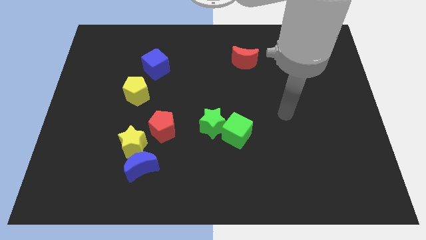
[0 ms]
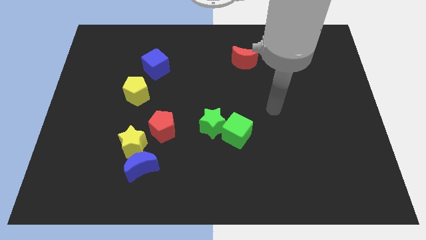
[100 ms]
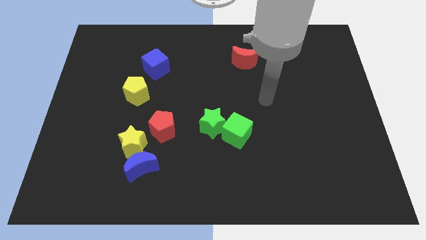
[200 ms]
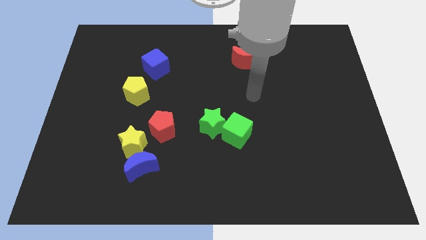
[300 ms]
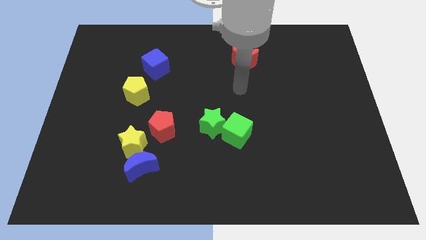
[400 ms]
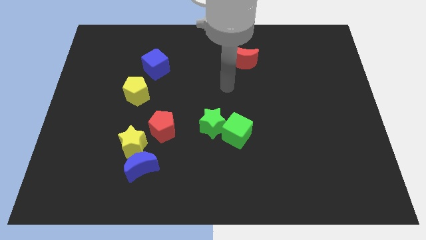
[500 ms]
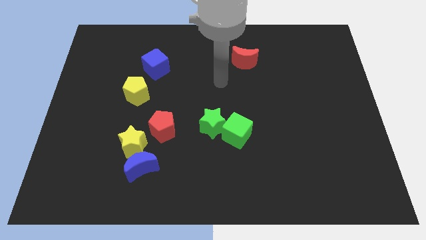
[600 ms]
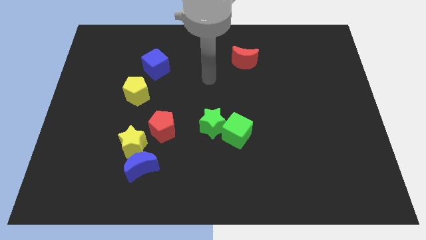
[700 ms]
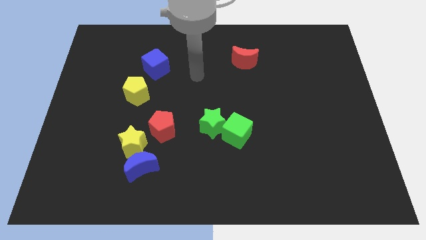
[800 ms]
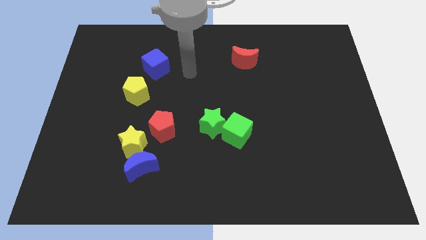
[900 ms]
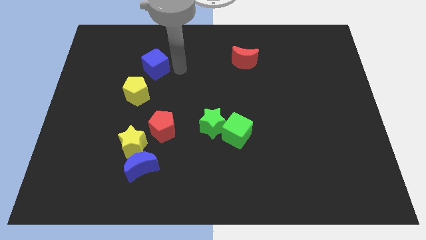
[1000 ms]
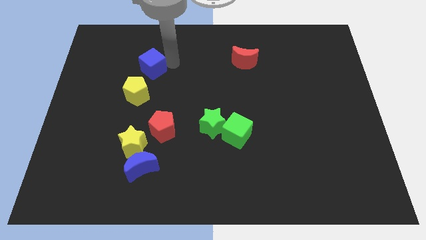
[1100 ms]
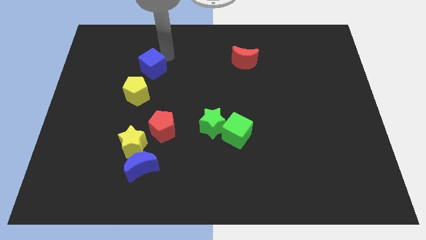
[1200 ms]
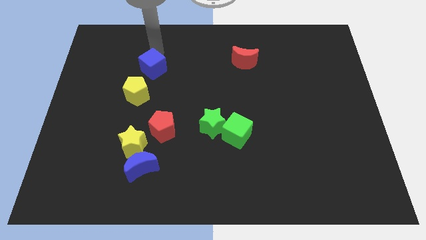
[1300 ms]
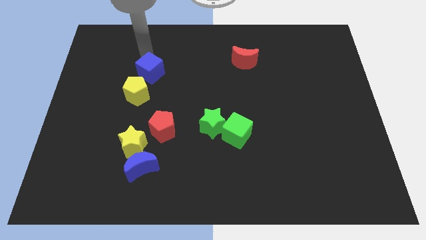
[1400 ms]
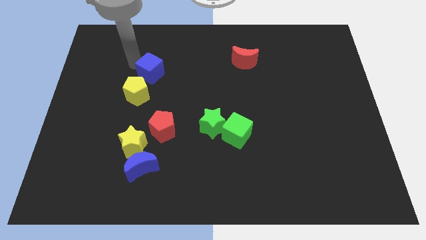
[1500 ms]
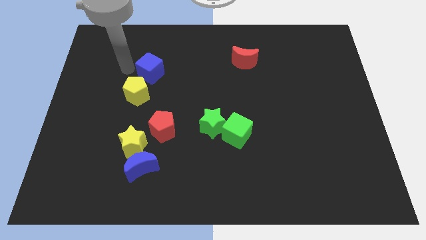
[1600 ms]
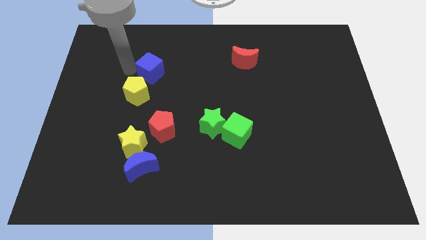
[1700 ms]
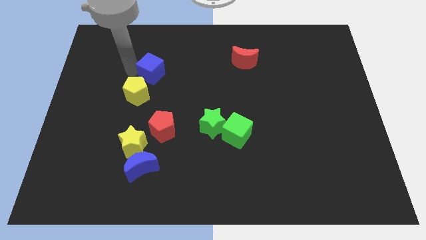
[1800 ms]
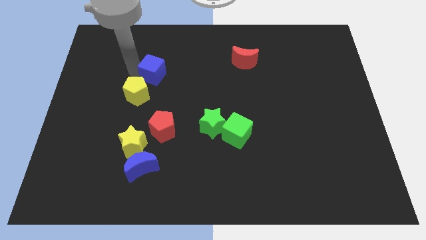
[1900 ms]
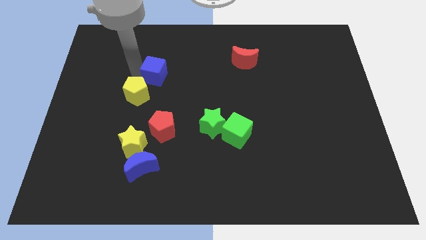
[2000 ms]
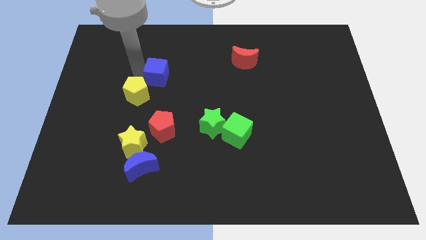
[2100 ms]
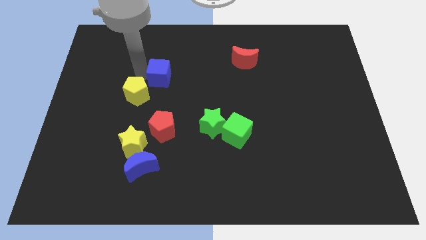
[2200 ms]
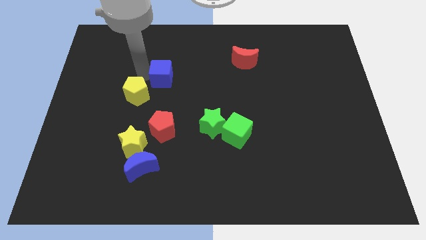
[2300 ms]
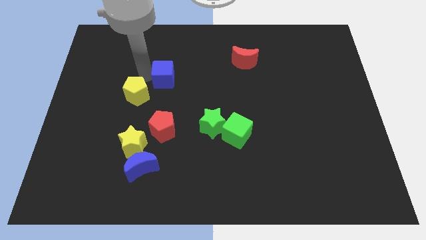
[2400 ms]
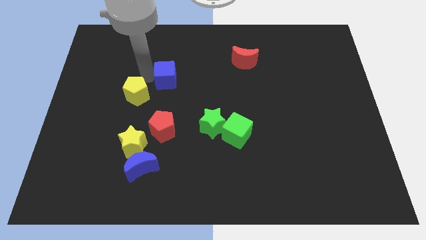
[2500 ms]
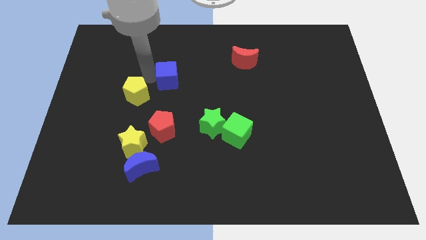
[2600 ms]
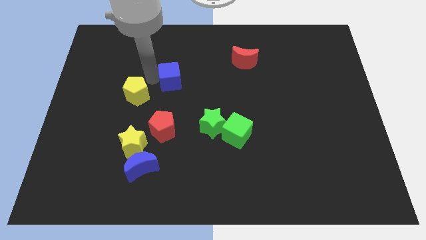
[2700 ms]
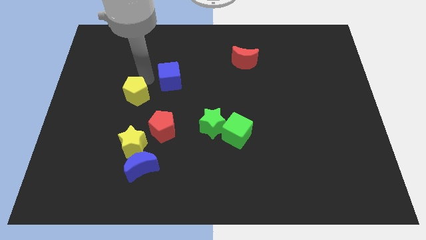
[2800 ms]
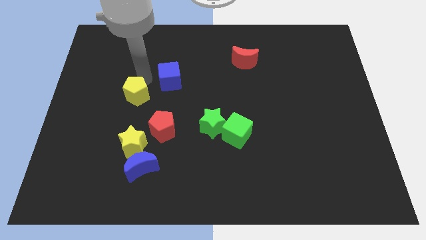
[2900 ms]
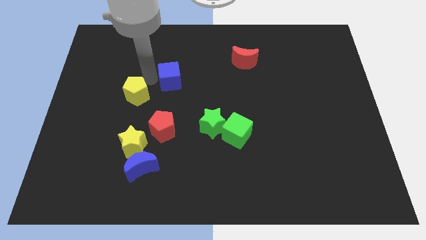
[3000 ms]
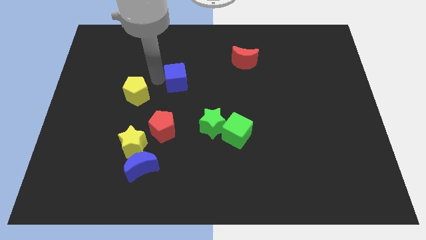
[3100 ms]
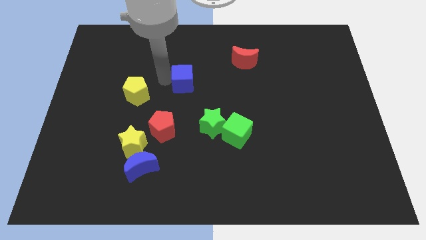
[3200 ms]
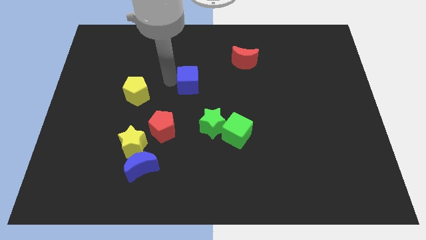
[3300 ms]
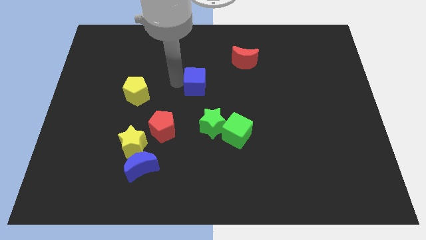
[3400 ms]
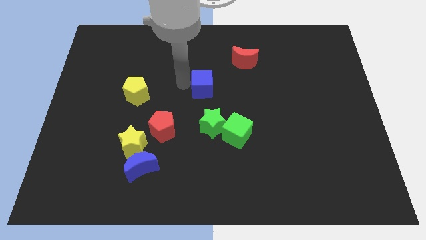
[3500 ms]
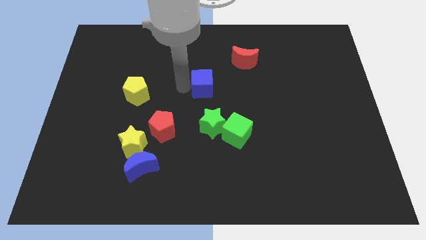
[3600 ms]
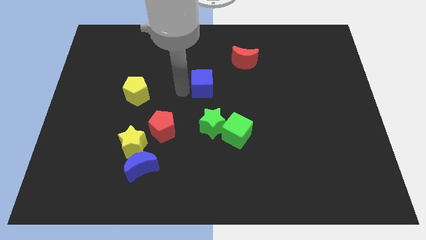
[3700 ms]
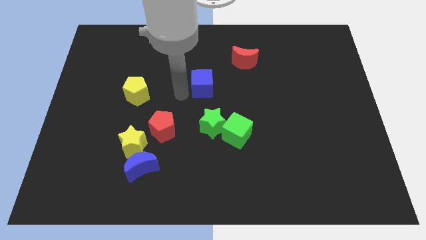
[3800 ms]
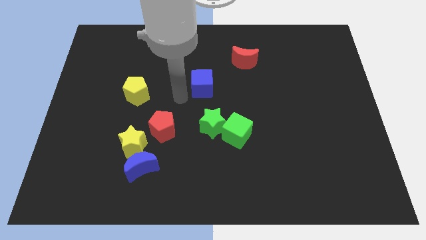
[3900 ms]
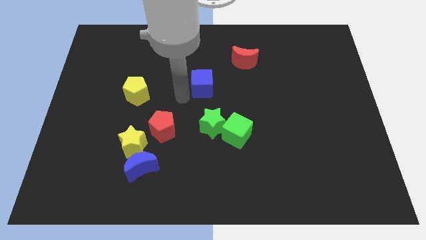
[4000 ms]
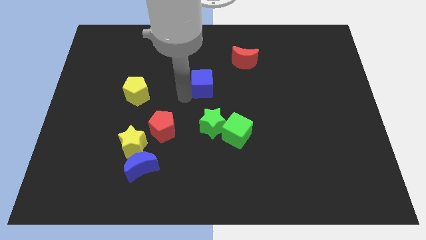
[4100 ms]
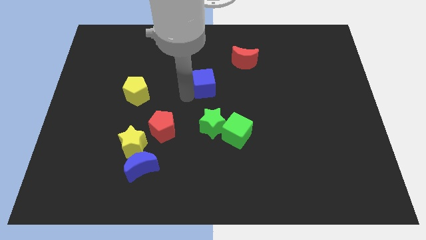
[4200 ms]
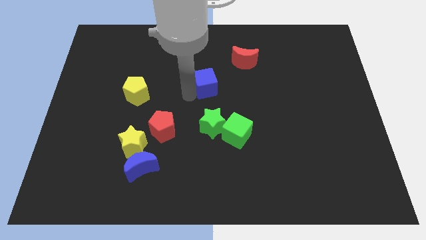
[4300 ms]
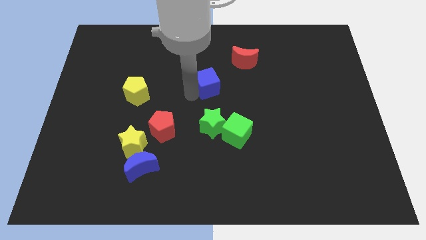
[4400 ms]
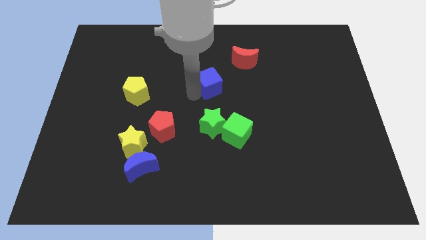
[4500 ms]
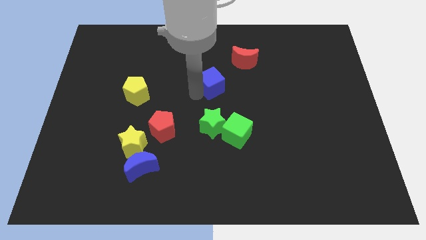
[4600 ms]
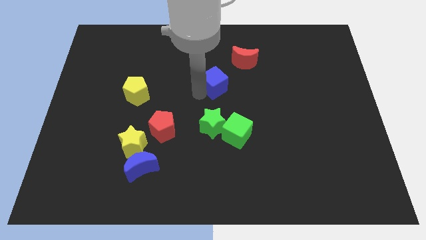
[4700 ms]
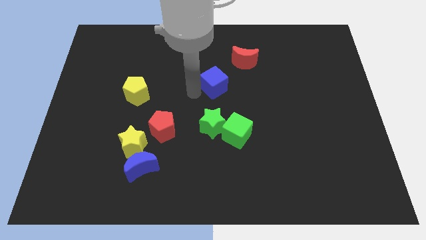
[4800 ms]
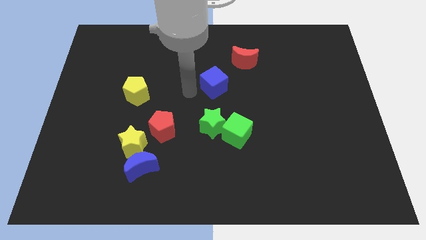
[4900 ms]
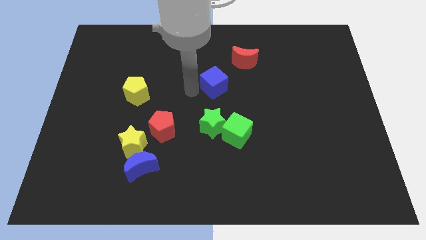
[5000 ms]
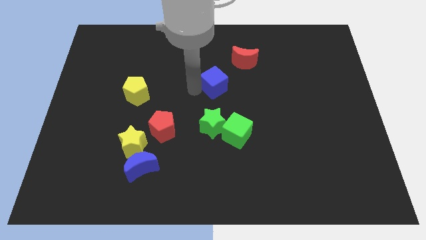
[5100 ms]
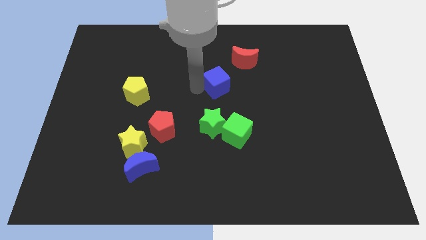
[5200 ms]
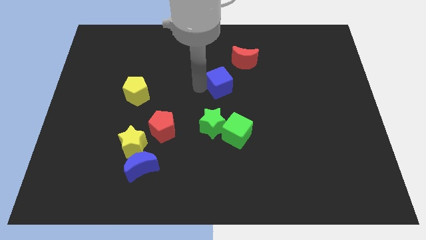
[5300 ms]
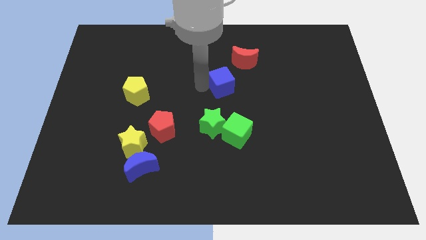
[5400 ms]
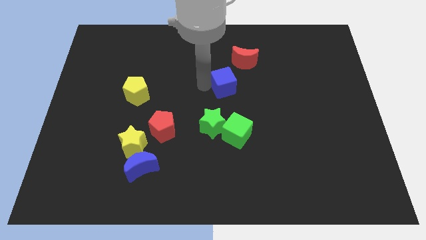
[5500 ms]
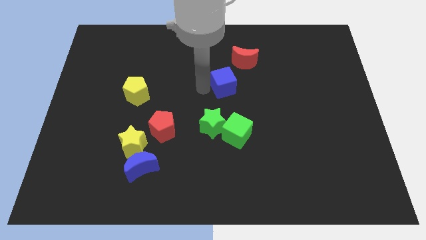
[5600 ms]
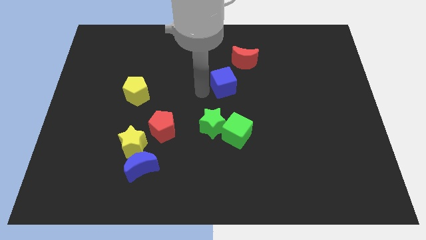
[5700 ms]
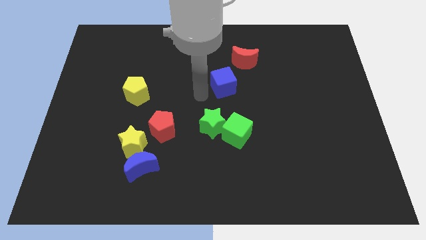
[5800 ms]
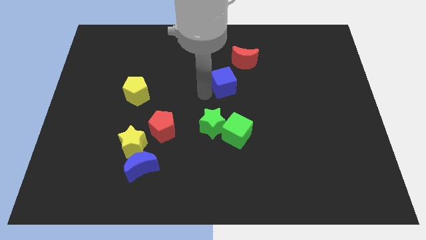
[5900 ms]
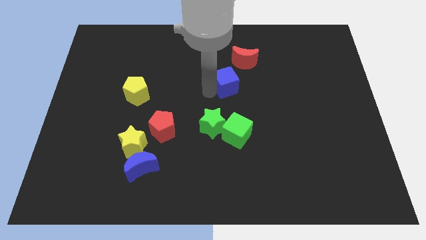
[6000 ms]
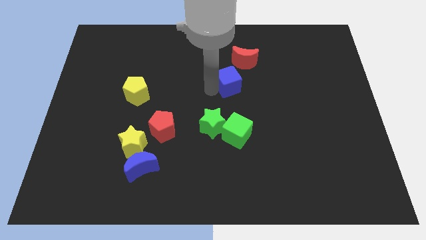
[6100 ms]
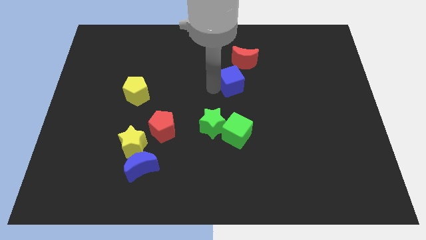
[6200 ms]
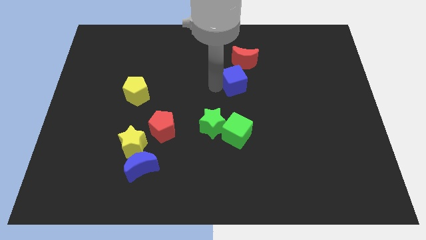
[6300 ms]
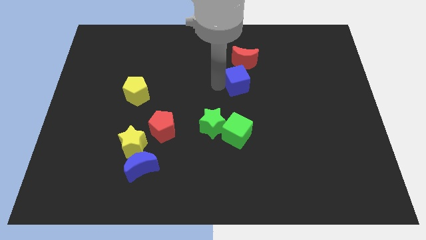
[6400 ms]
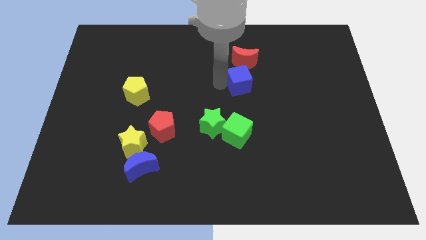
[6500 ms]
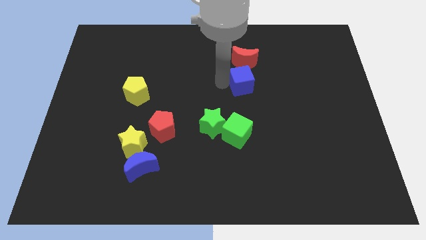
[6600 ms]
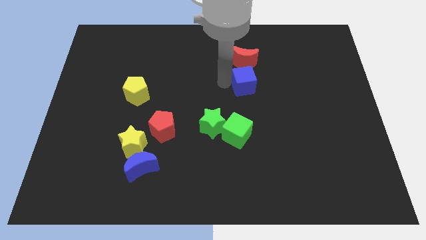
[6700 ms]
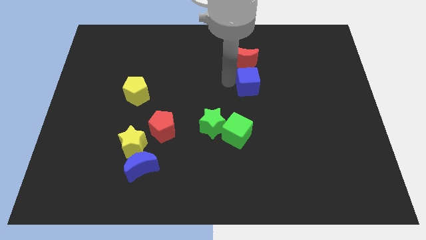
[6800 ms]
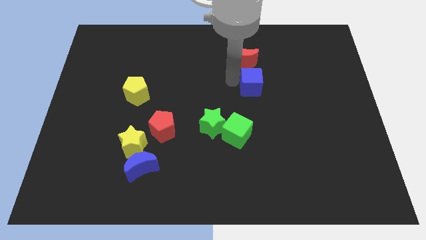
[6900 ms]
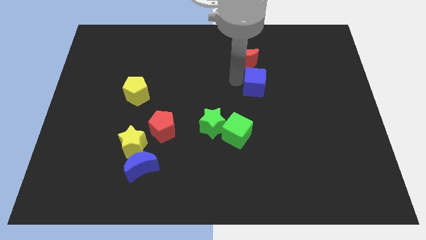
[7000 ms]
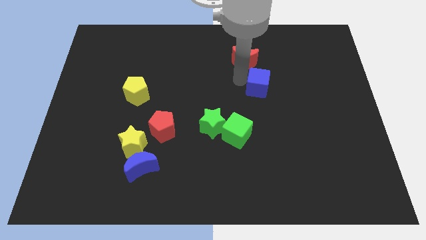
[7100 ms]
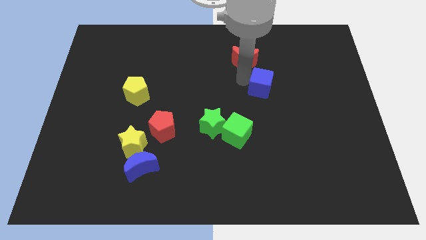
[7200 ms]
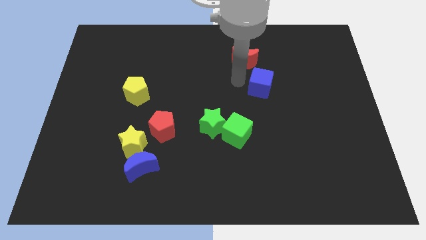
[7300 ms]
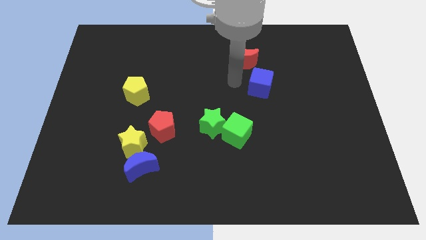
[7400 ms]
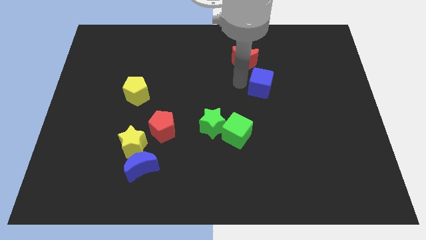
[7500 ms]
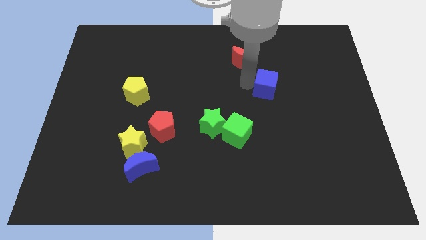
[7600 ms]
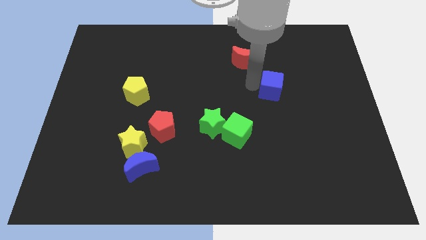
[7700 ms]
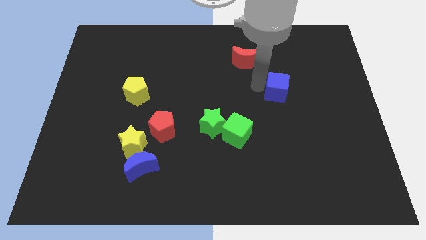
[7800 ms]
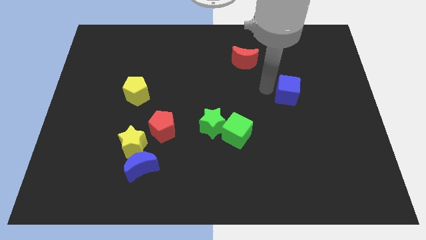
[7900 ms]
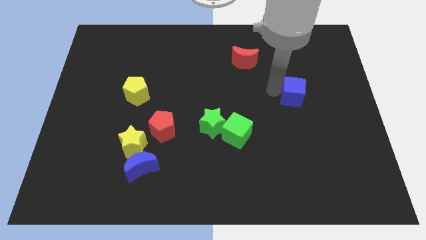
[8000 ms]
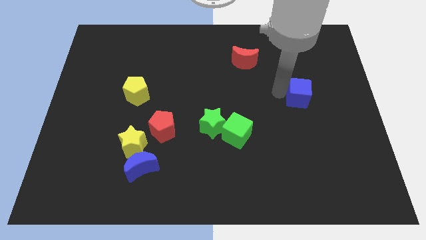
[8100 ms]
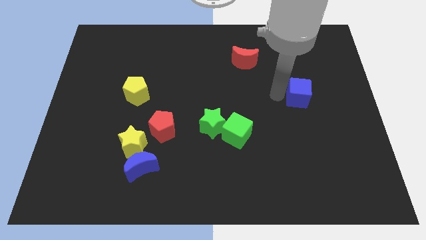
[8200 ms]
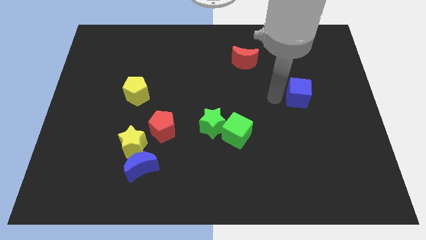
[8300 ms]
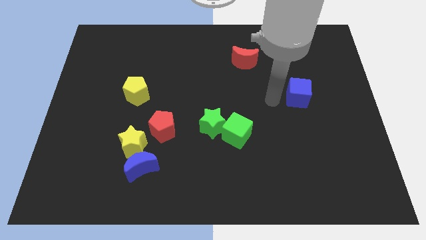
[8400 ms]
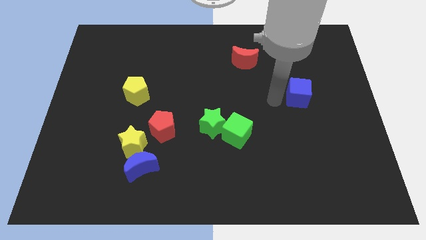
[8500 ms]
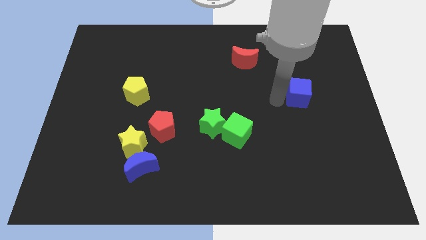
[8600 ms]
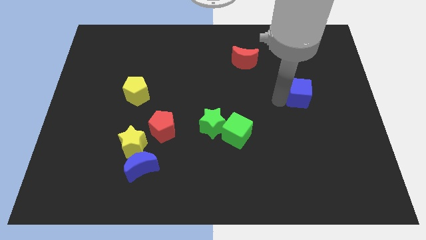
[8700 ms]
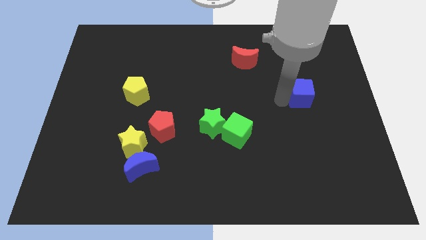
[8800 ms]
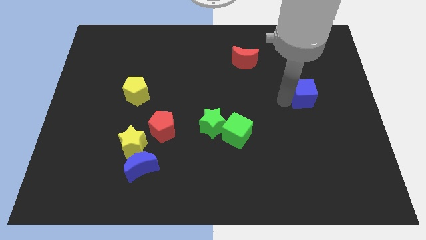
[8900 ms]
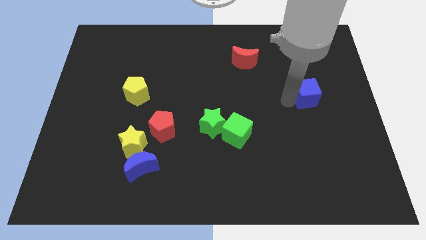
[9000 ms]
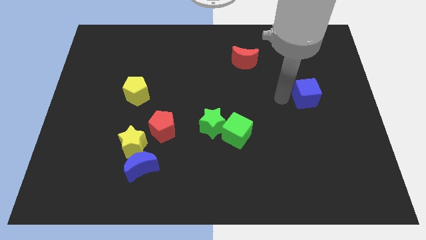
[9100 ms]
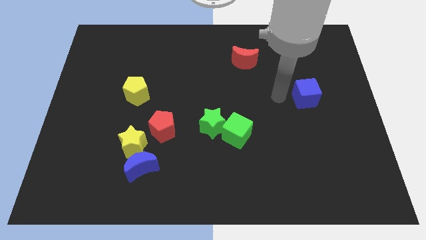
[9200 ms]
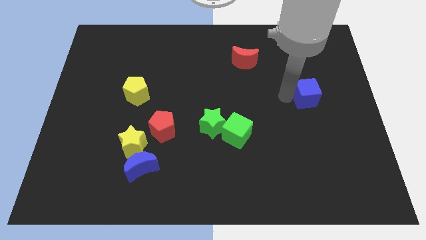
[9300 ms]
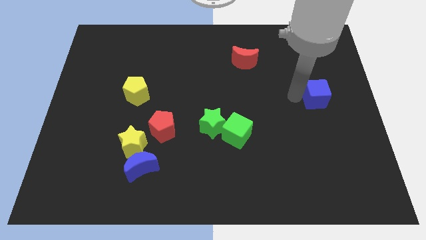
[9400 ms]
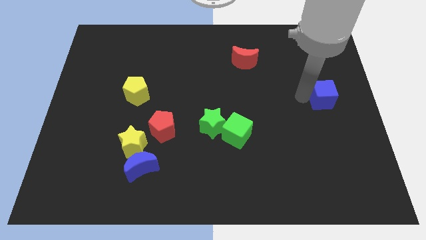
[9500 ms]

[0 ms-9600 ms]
move the blue cube to the center right
